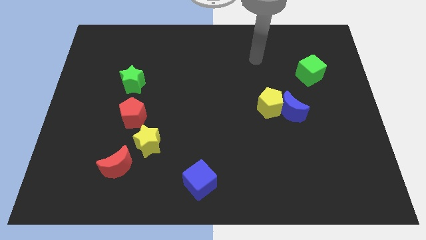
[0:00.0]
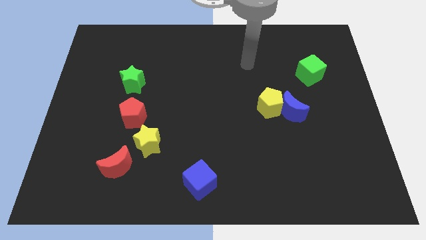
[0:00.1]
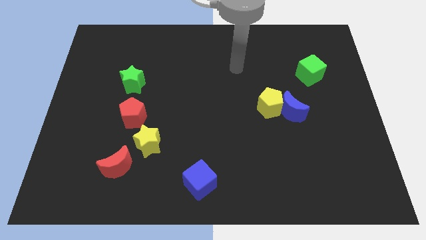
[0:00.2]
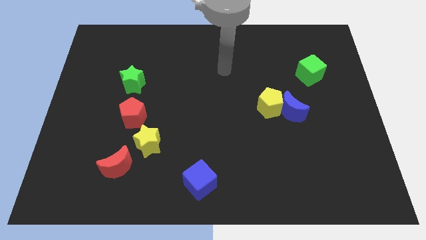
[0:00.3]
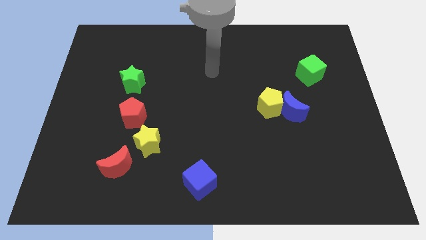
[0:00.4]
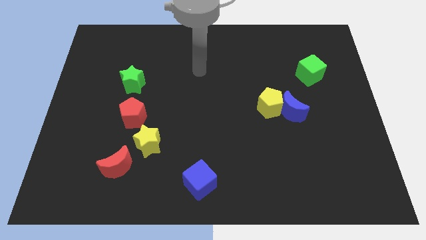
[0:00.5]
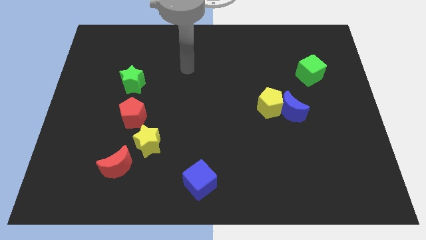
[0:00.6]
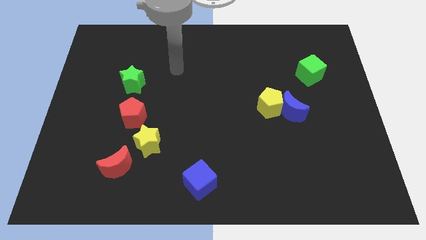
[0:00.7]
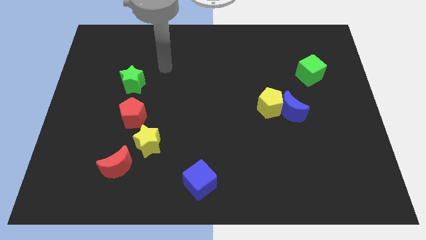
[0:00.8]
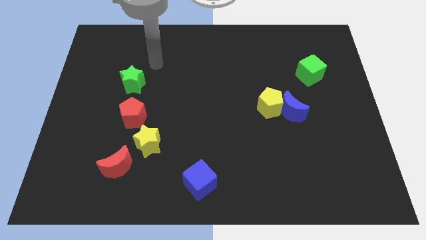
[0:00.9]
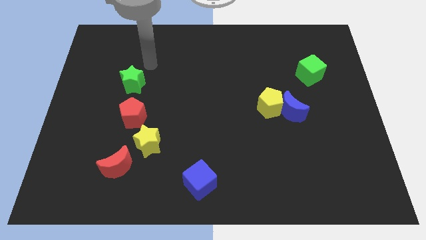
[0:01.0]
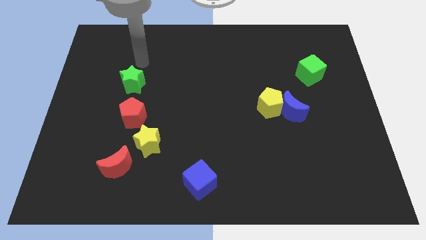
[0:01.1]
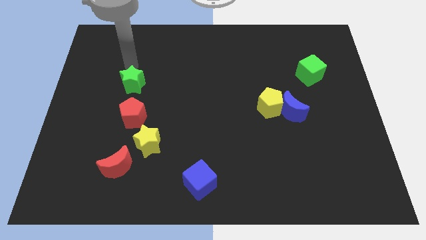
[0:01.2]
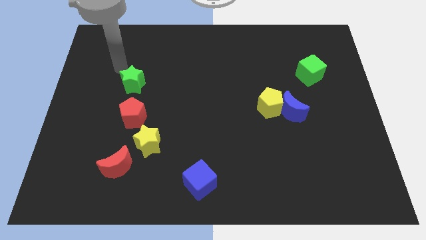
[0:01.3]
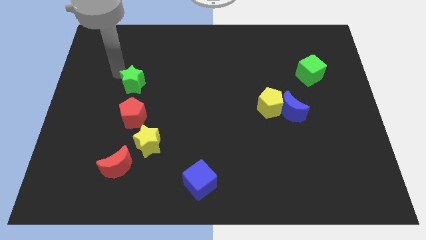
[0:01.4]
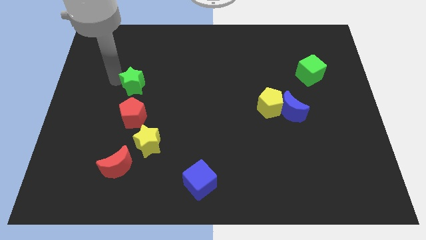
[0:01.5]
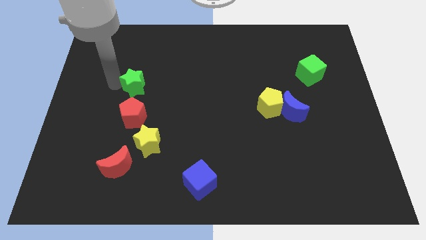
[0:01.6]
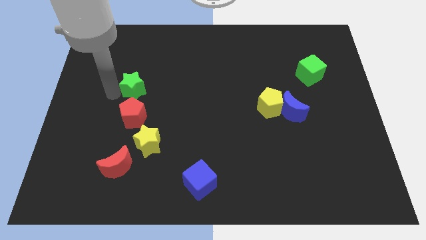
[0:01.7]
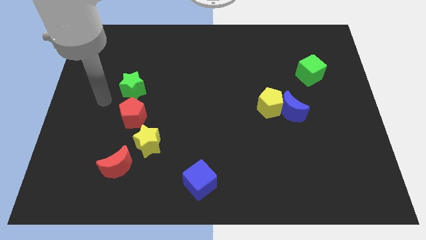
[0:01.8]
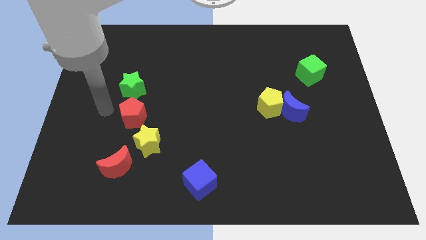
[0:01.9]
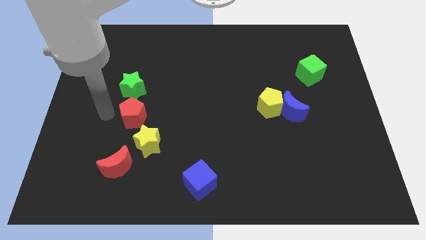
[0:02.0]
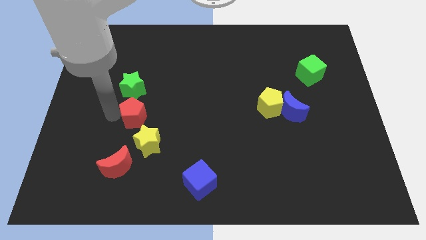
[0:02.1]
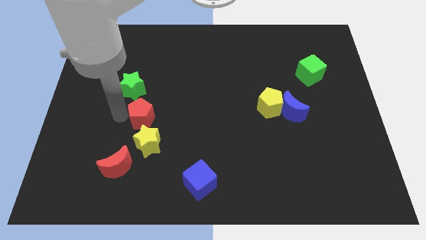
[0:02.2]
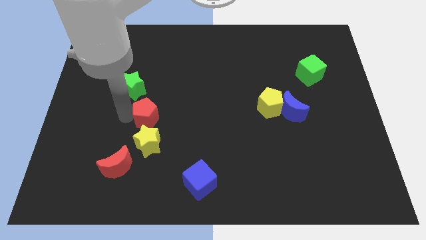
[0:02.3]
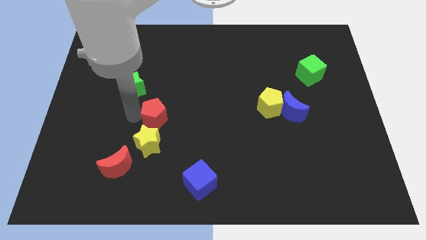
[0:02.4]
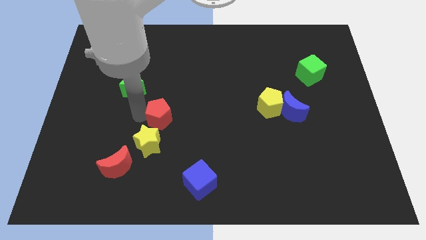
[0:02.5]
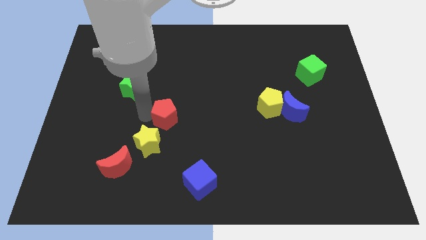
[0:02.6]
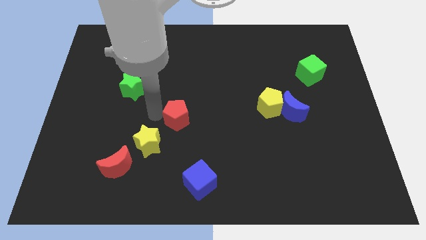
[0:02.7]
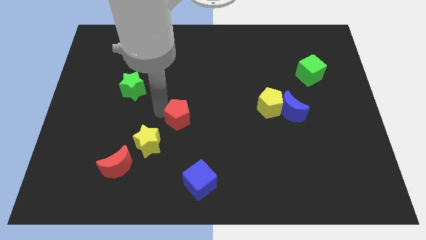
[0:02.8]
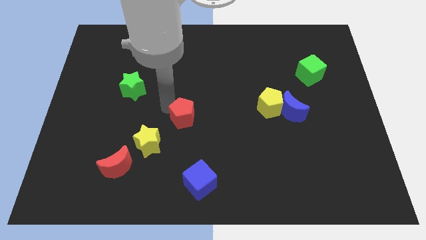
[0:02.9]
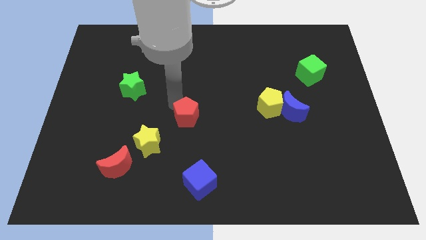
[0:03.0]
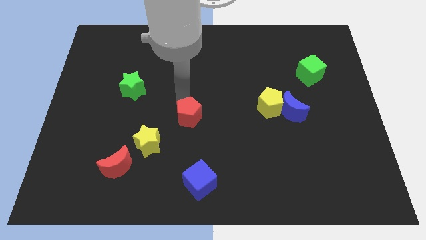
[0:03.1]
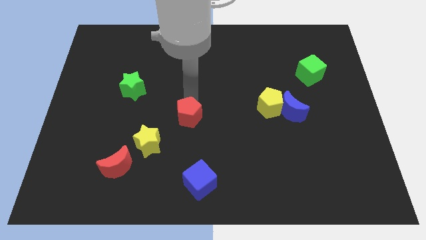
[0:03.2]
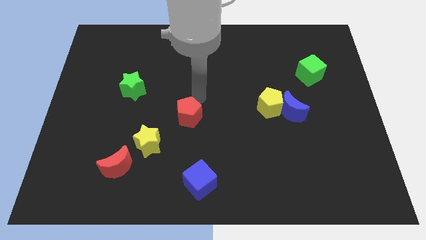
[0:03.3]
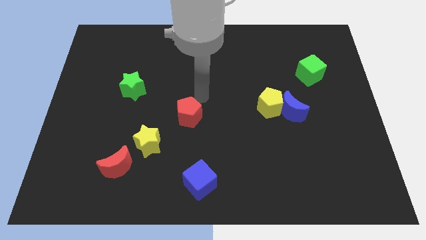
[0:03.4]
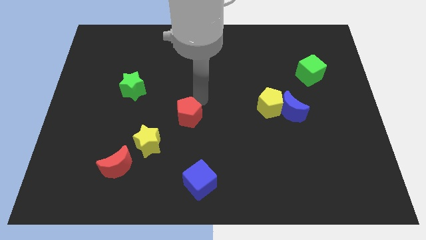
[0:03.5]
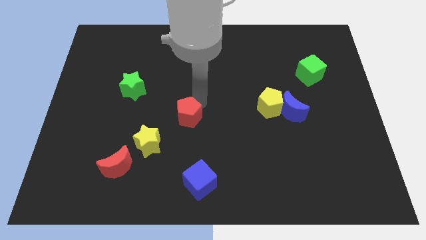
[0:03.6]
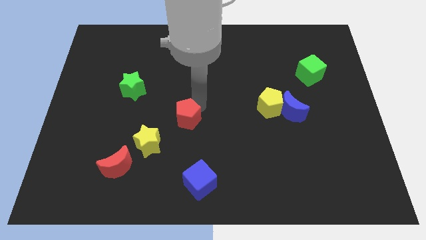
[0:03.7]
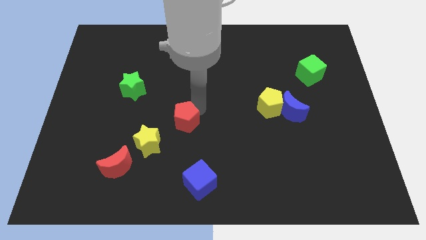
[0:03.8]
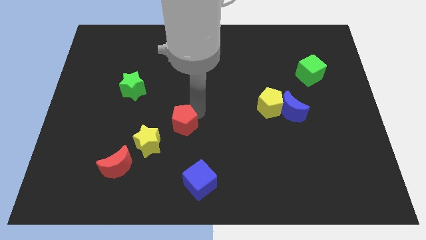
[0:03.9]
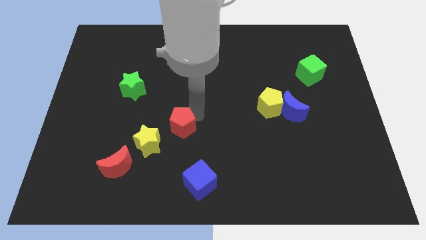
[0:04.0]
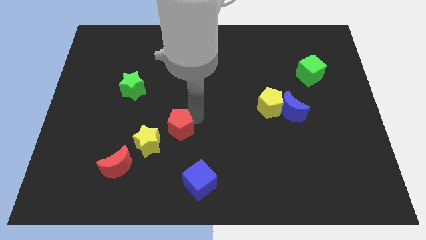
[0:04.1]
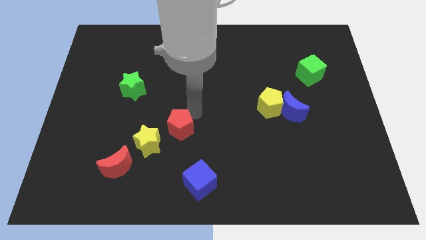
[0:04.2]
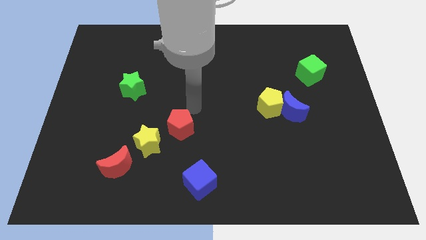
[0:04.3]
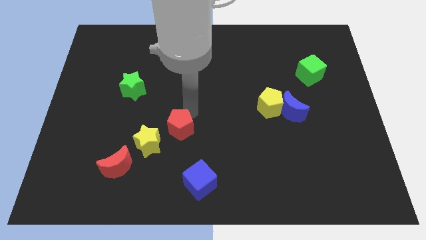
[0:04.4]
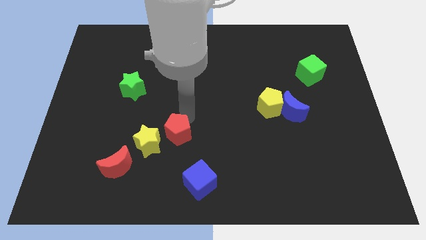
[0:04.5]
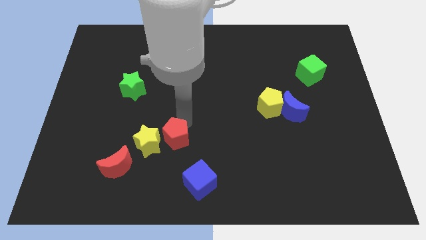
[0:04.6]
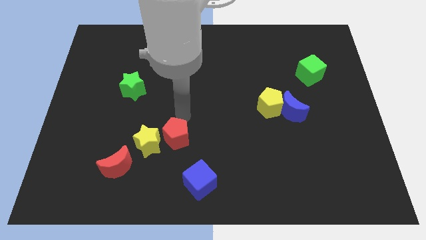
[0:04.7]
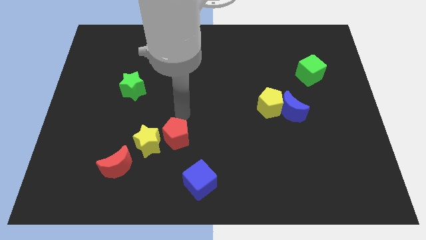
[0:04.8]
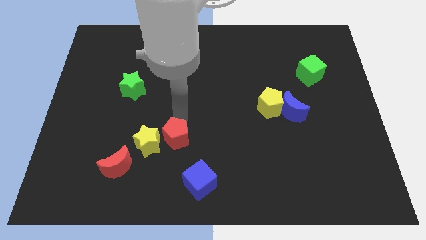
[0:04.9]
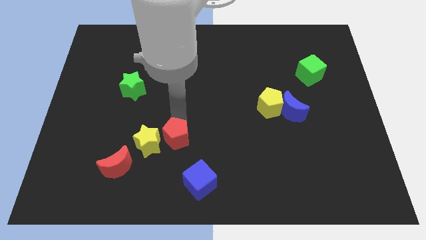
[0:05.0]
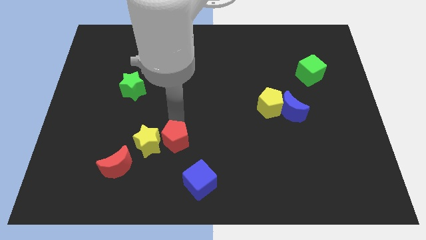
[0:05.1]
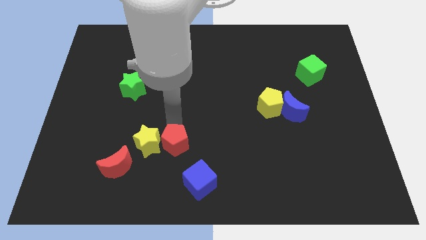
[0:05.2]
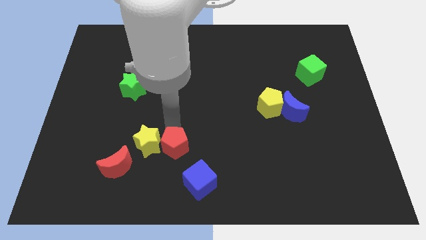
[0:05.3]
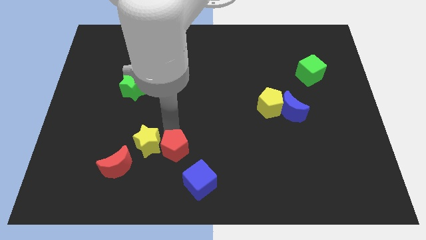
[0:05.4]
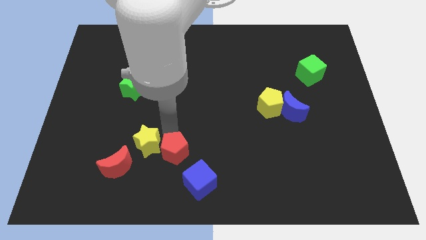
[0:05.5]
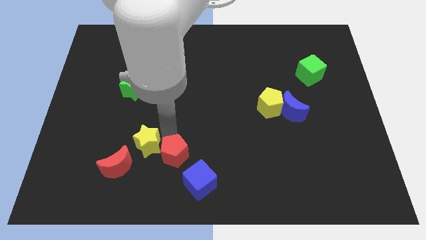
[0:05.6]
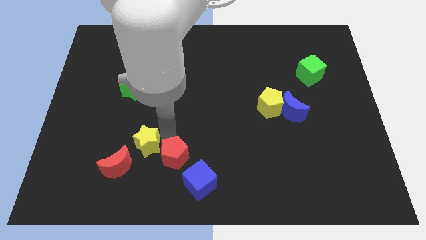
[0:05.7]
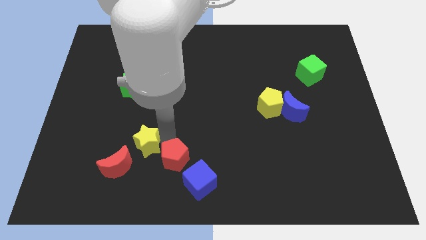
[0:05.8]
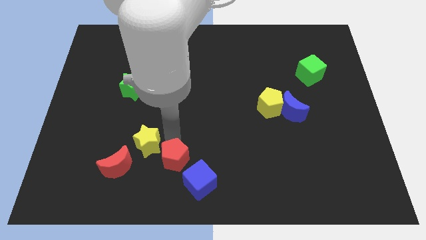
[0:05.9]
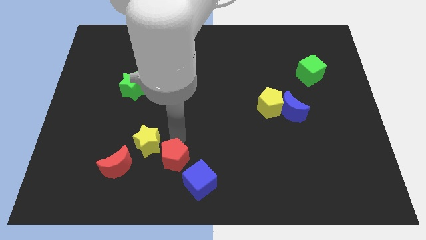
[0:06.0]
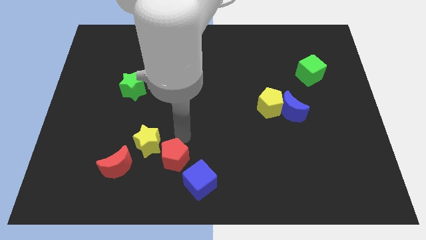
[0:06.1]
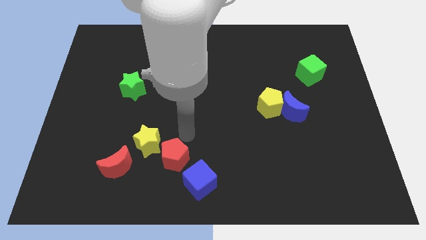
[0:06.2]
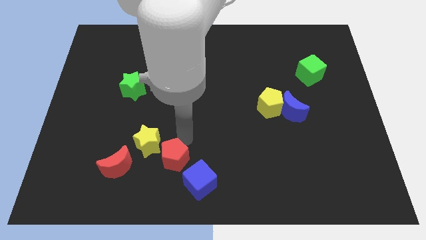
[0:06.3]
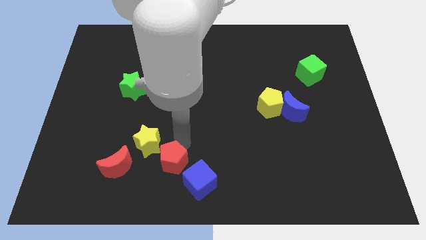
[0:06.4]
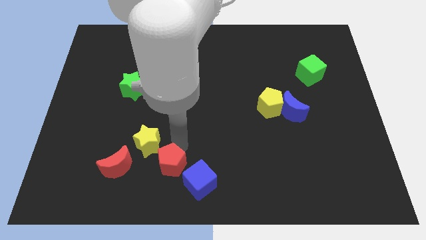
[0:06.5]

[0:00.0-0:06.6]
slide the red pentagon to the bottom
